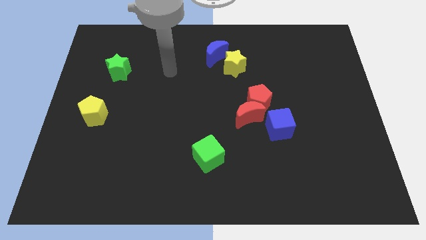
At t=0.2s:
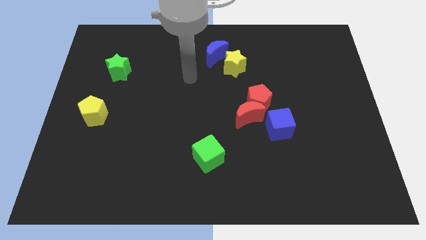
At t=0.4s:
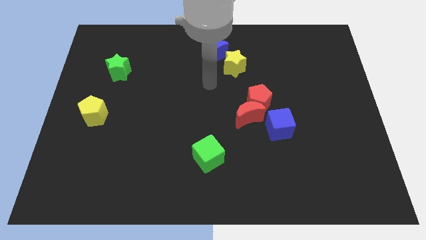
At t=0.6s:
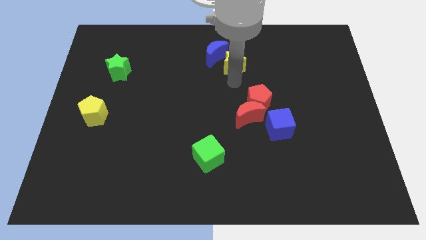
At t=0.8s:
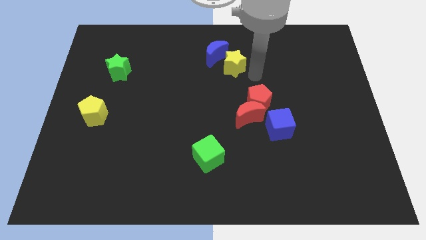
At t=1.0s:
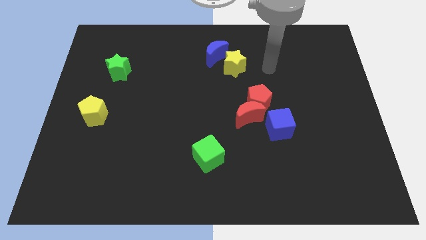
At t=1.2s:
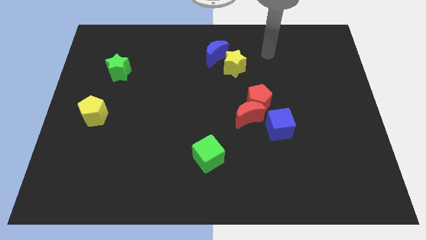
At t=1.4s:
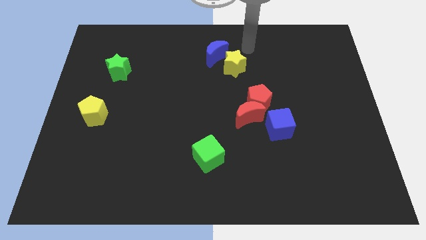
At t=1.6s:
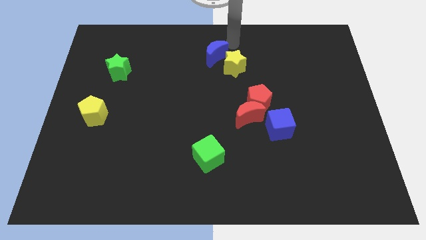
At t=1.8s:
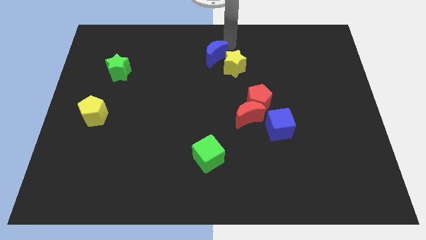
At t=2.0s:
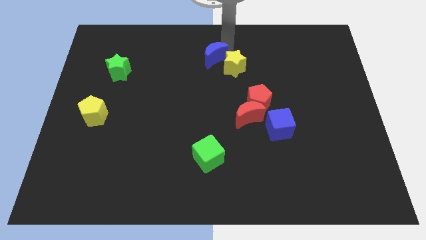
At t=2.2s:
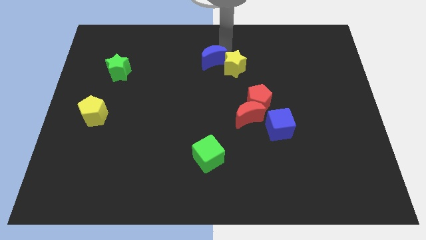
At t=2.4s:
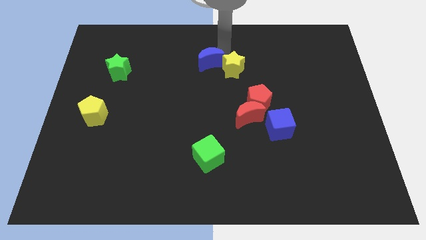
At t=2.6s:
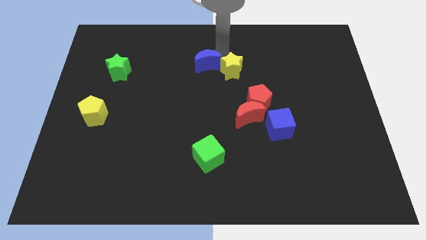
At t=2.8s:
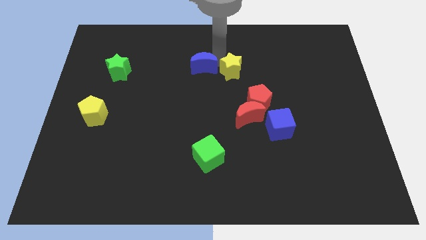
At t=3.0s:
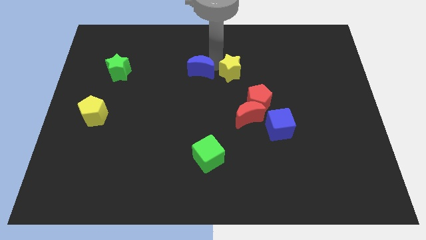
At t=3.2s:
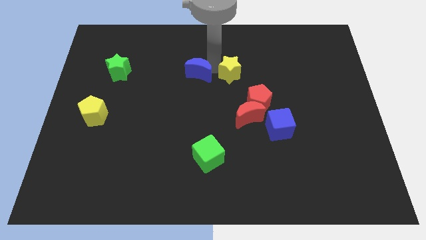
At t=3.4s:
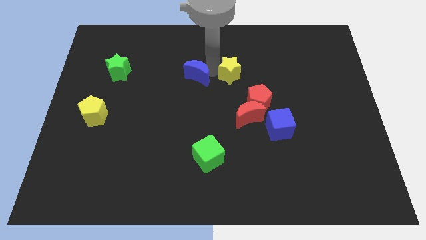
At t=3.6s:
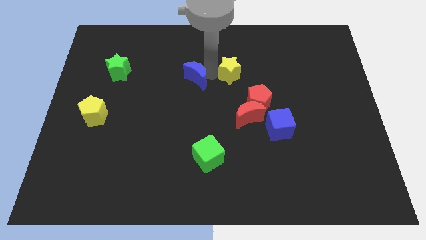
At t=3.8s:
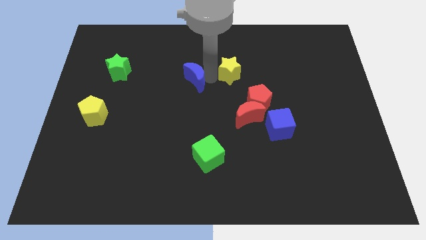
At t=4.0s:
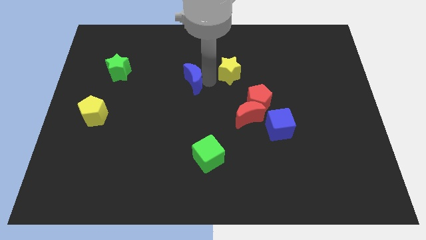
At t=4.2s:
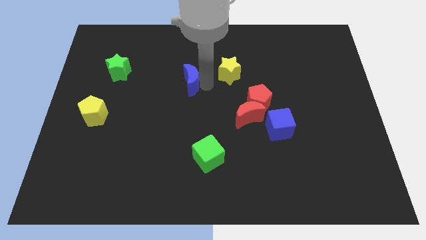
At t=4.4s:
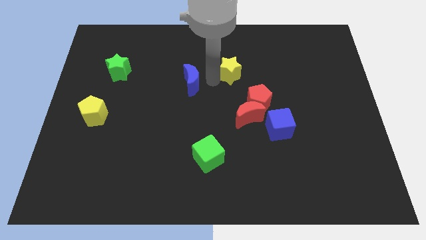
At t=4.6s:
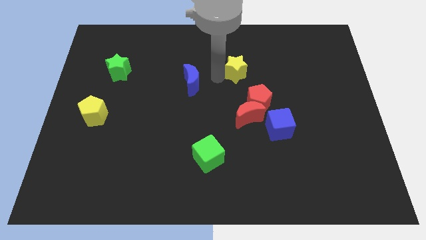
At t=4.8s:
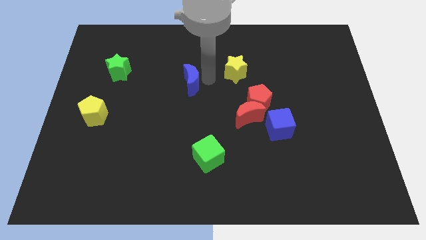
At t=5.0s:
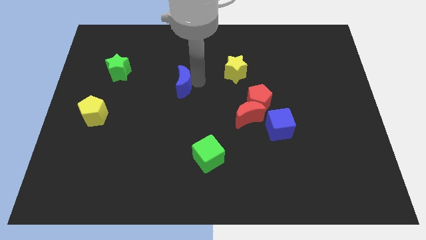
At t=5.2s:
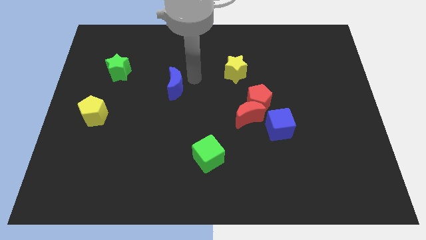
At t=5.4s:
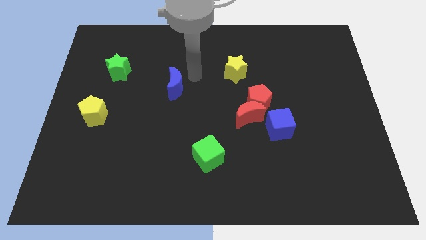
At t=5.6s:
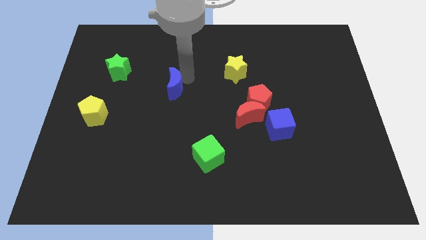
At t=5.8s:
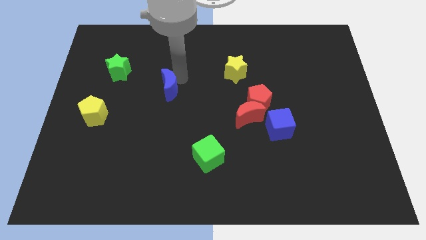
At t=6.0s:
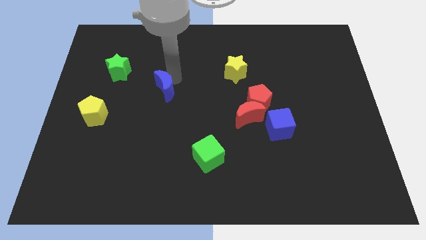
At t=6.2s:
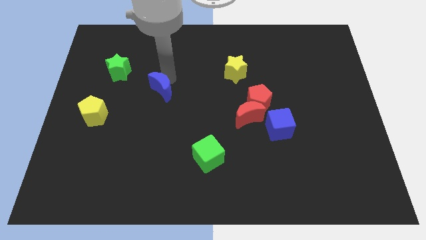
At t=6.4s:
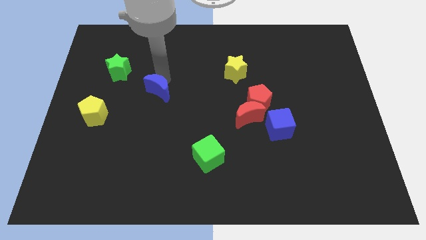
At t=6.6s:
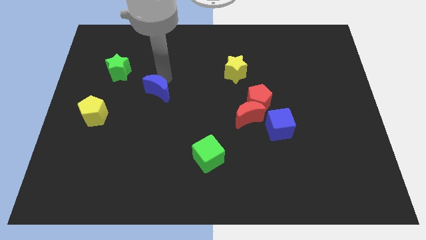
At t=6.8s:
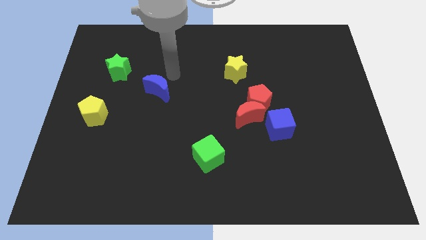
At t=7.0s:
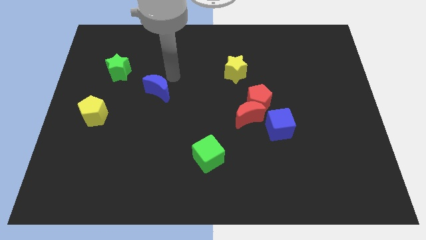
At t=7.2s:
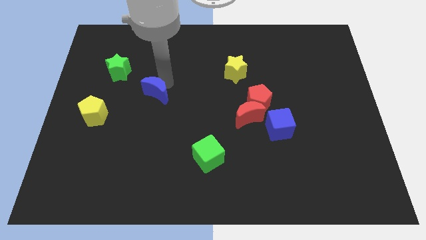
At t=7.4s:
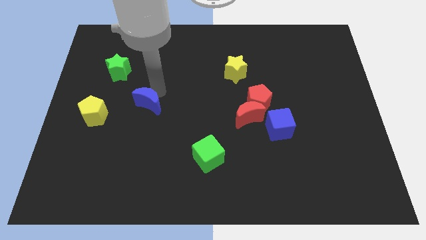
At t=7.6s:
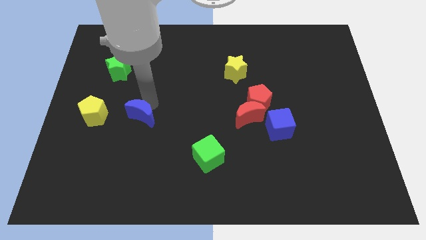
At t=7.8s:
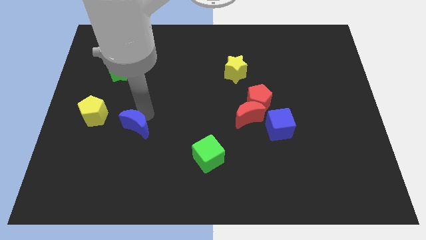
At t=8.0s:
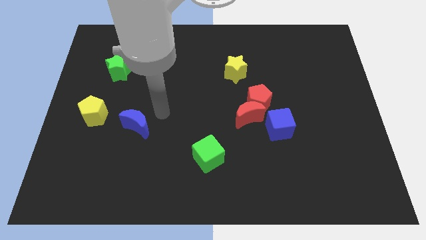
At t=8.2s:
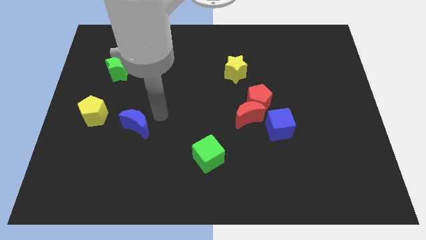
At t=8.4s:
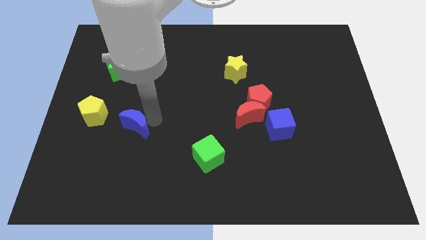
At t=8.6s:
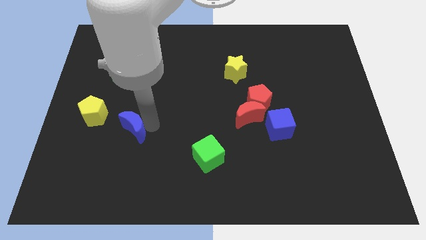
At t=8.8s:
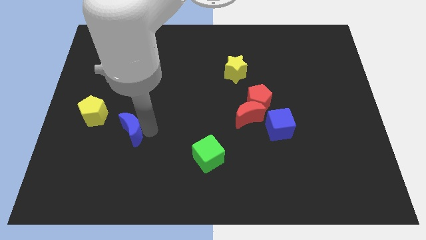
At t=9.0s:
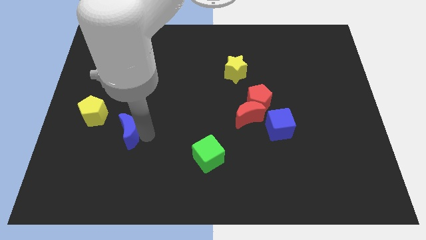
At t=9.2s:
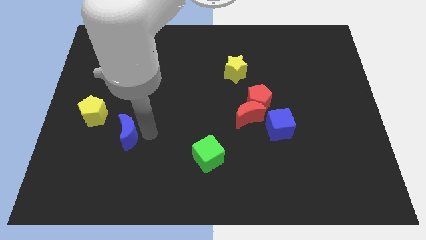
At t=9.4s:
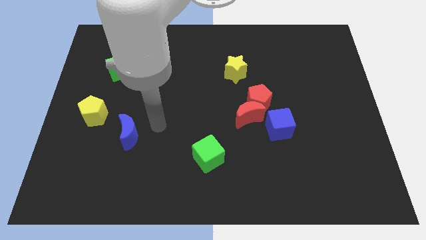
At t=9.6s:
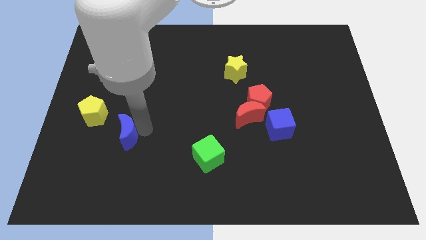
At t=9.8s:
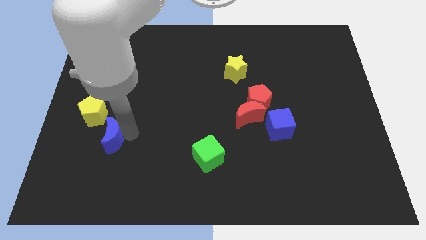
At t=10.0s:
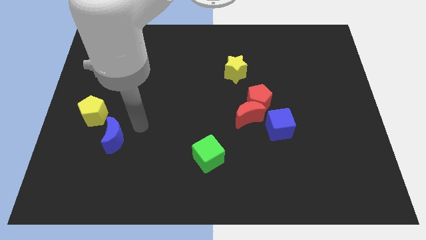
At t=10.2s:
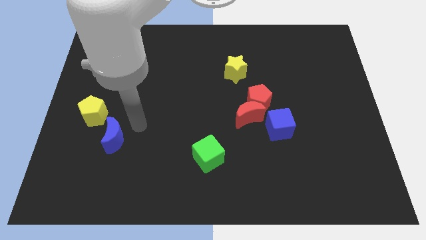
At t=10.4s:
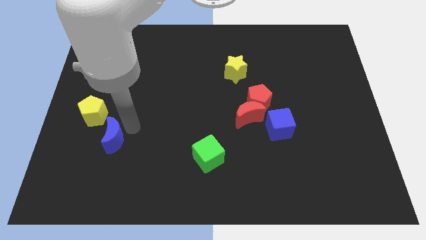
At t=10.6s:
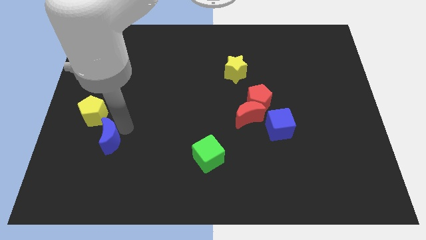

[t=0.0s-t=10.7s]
push the blue moon to the bottom of the yellow pentagon

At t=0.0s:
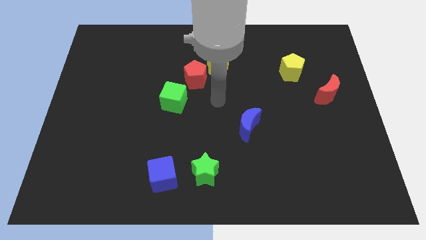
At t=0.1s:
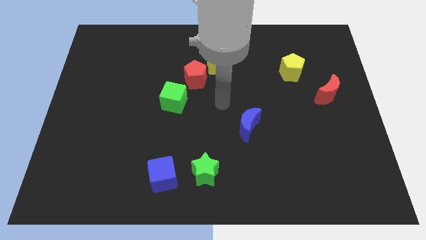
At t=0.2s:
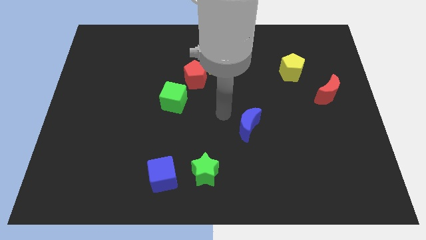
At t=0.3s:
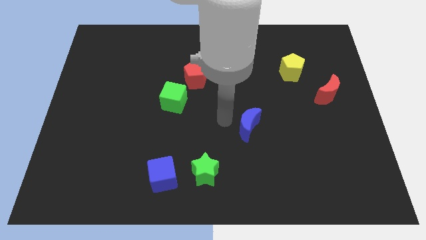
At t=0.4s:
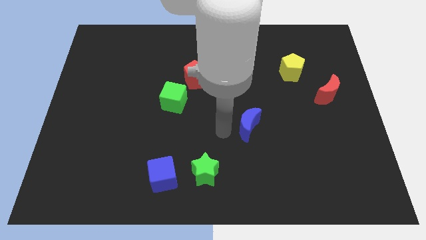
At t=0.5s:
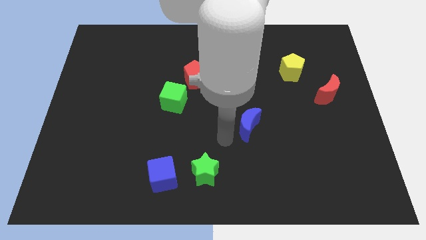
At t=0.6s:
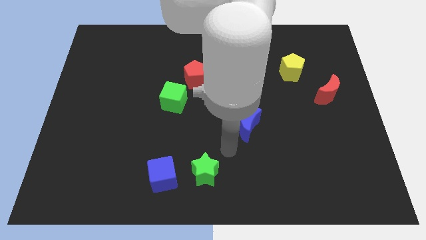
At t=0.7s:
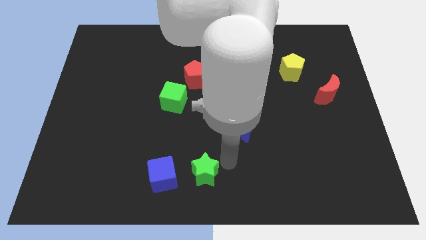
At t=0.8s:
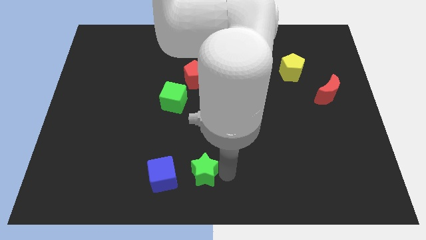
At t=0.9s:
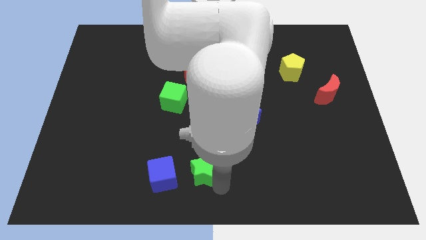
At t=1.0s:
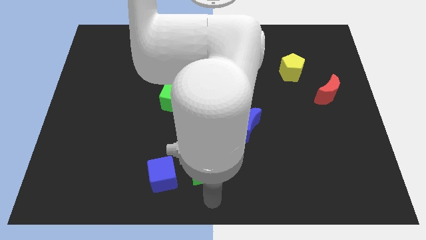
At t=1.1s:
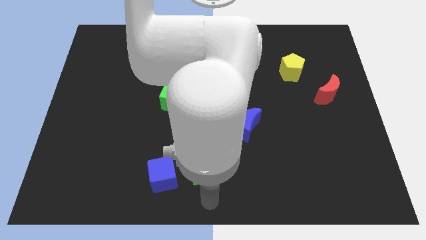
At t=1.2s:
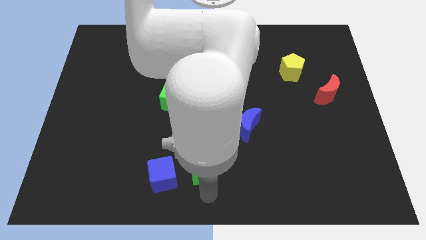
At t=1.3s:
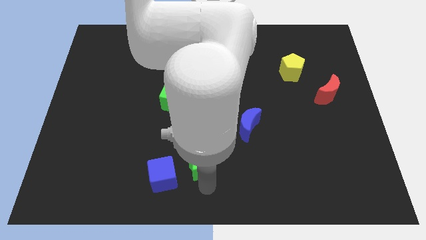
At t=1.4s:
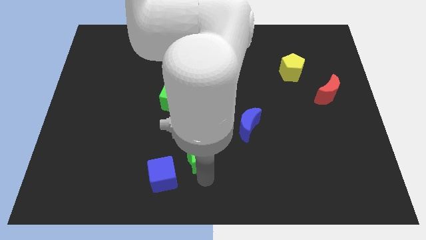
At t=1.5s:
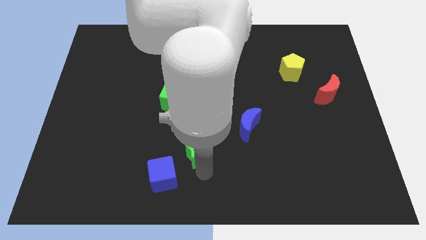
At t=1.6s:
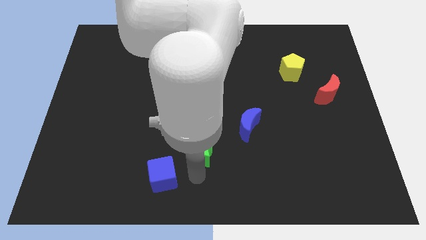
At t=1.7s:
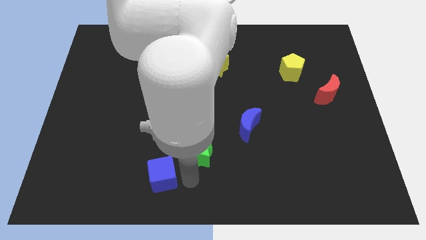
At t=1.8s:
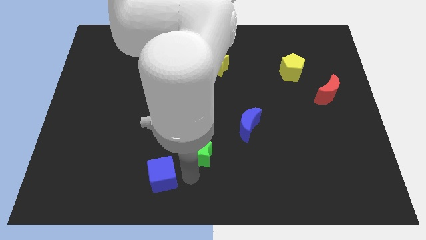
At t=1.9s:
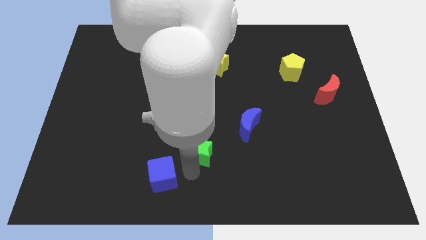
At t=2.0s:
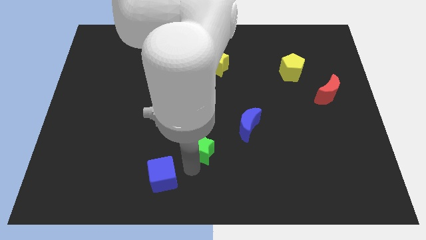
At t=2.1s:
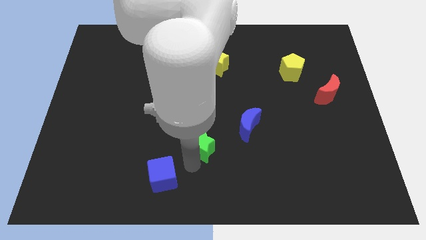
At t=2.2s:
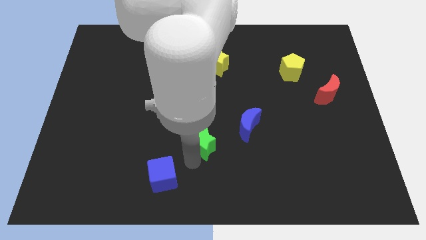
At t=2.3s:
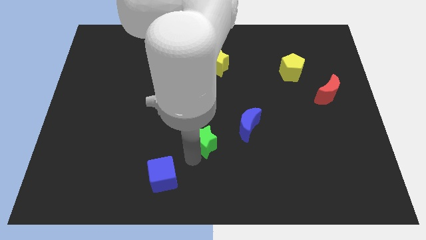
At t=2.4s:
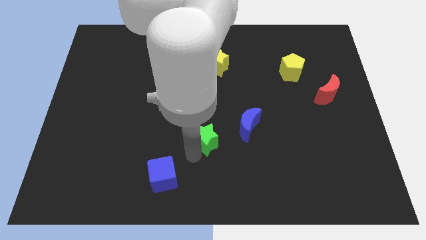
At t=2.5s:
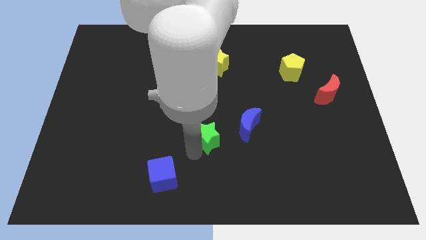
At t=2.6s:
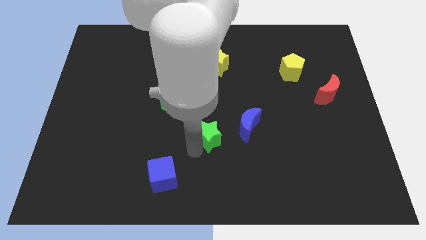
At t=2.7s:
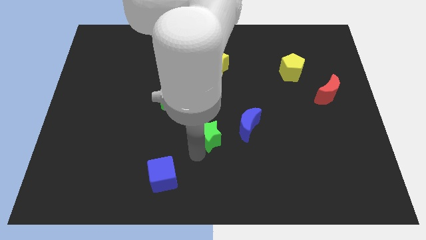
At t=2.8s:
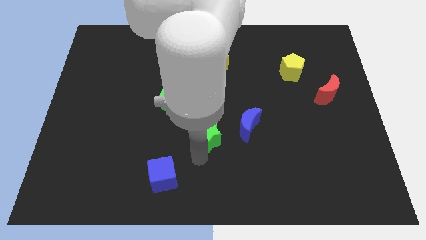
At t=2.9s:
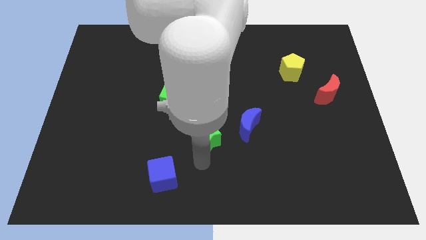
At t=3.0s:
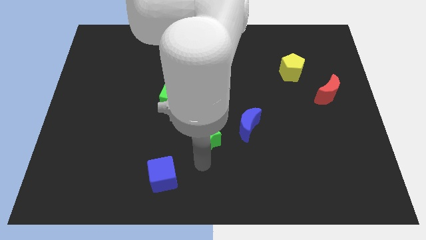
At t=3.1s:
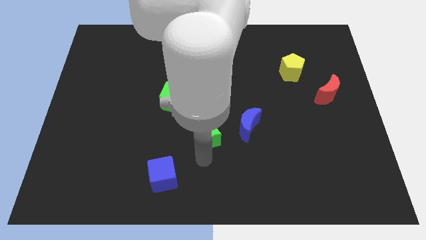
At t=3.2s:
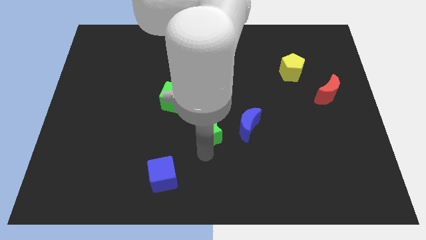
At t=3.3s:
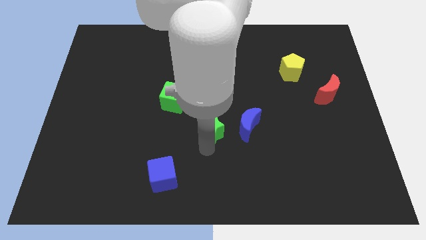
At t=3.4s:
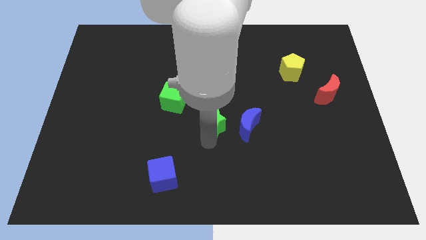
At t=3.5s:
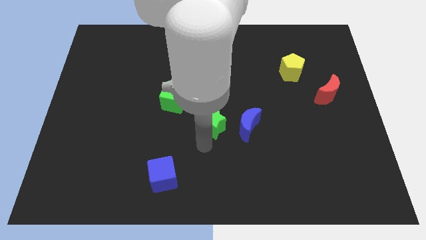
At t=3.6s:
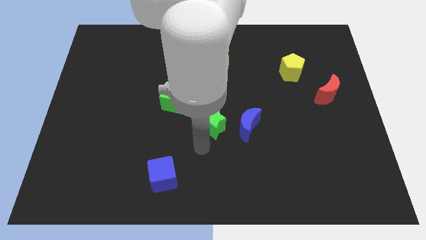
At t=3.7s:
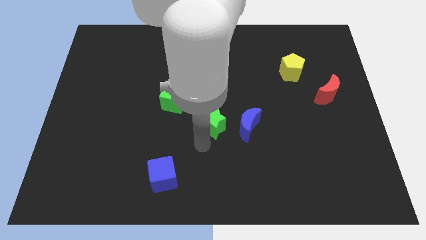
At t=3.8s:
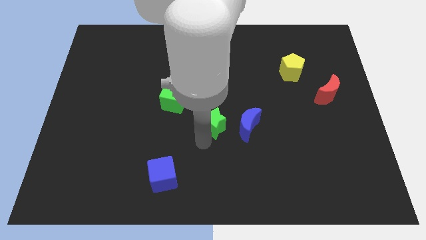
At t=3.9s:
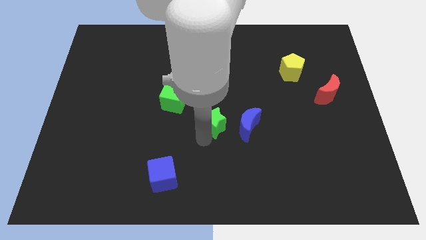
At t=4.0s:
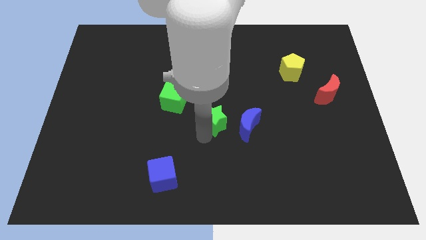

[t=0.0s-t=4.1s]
push the green star to the top left of the blue moon
